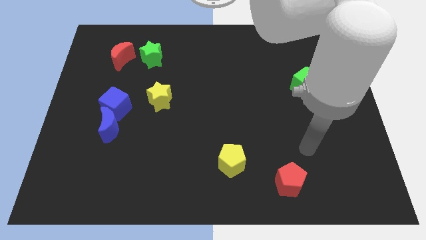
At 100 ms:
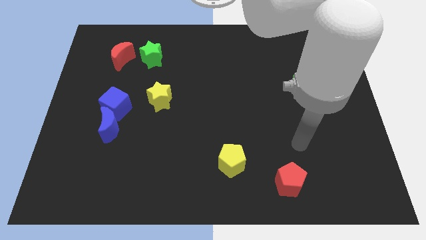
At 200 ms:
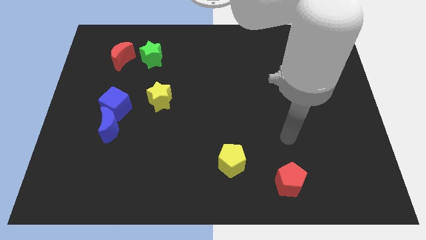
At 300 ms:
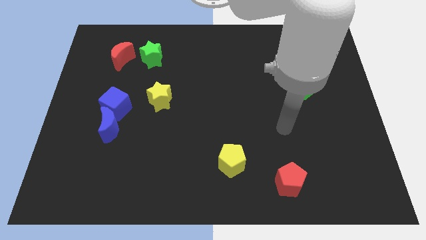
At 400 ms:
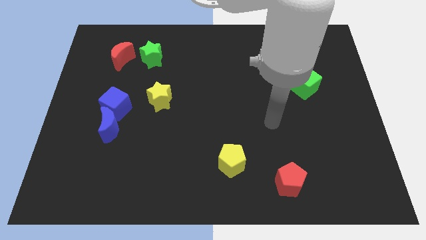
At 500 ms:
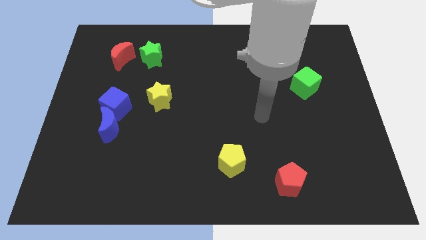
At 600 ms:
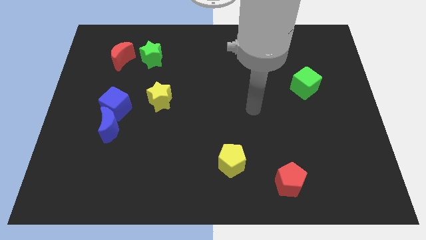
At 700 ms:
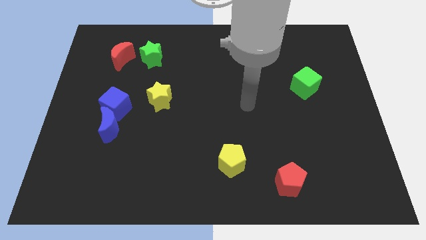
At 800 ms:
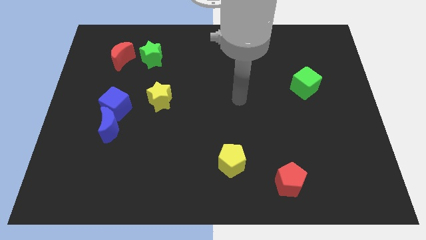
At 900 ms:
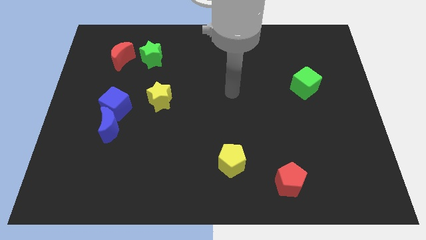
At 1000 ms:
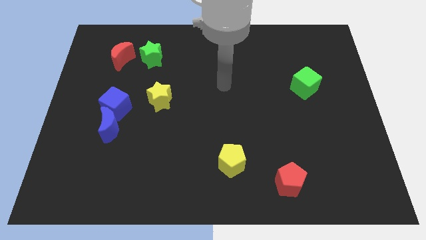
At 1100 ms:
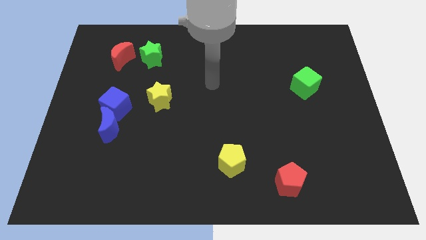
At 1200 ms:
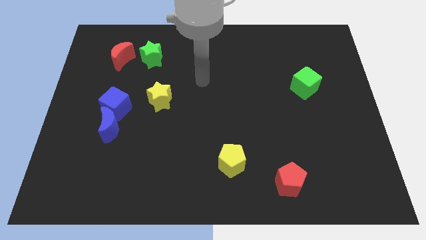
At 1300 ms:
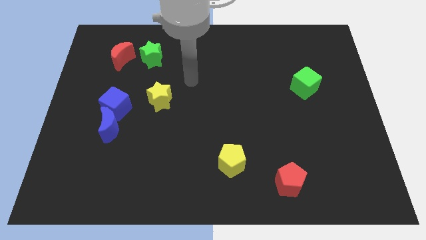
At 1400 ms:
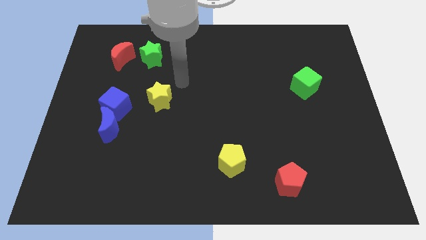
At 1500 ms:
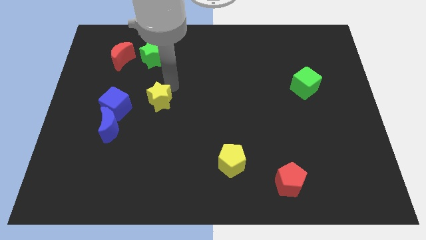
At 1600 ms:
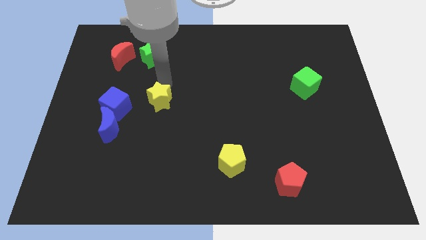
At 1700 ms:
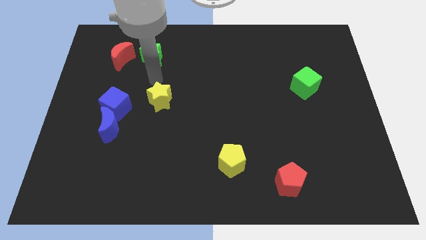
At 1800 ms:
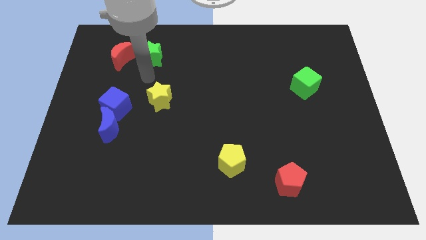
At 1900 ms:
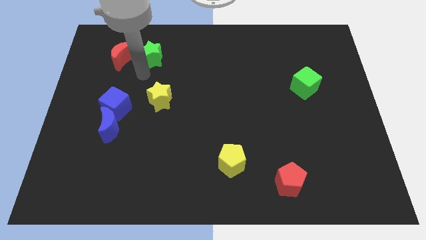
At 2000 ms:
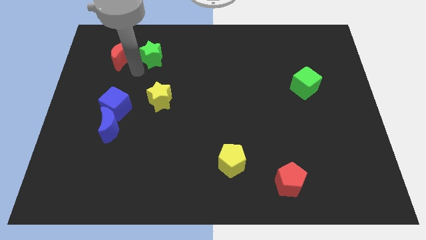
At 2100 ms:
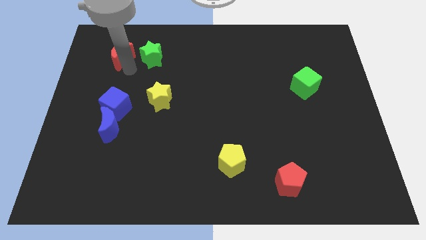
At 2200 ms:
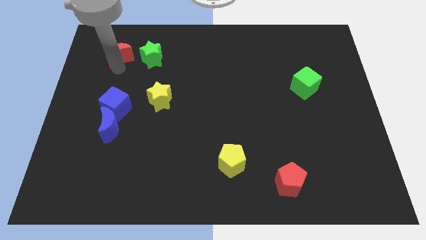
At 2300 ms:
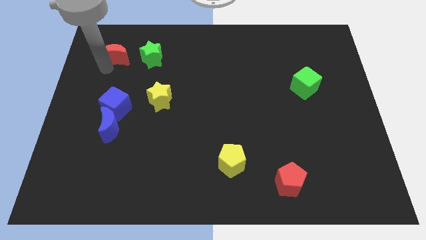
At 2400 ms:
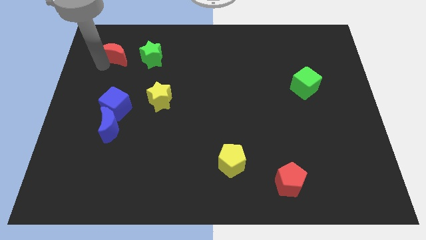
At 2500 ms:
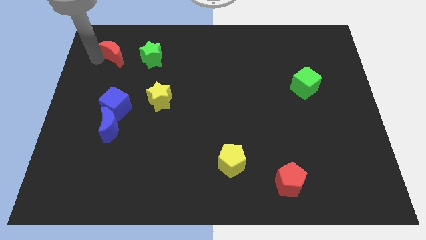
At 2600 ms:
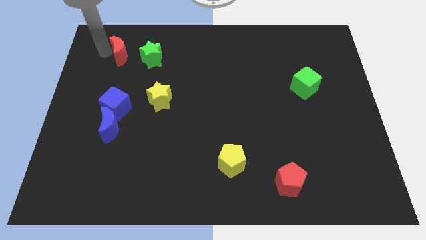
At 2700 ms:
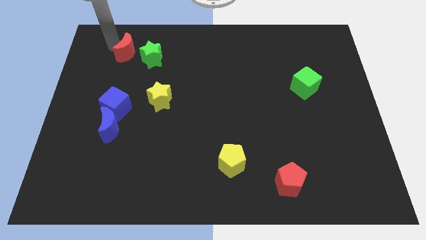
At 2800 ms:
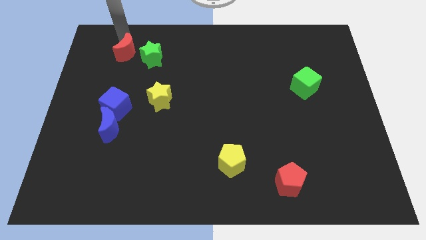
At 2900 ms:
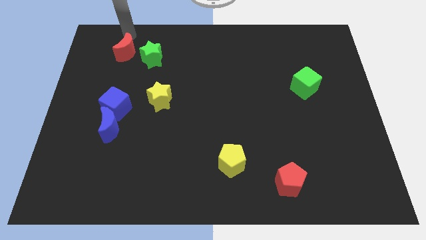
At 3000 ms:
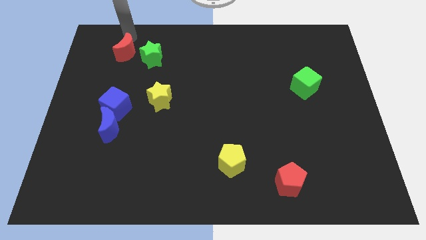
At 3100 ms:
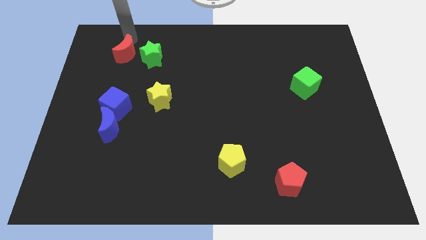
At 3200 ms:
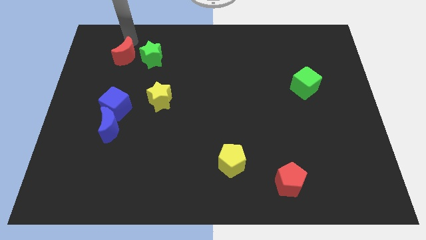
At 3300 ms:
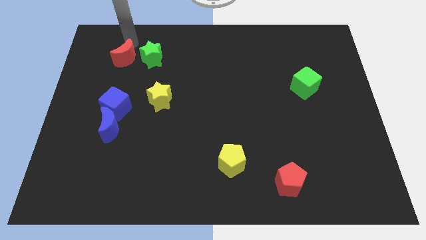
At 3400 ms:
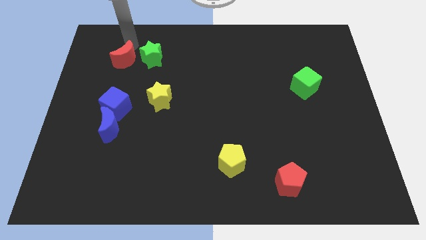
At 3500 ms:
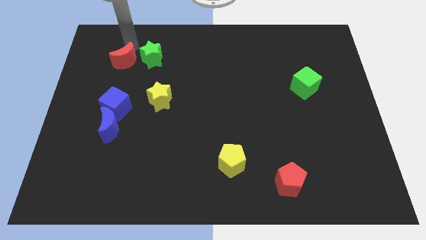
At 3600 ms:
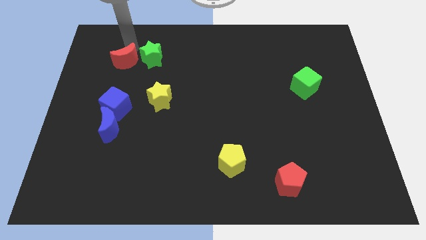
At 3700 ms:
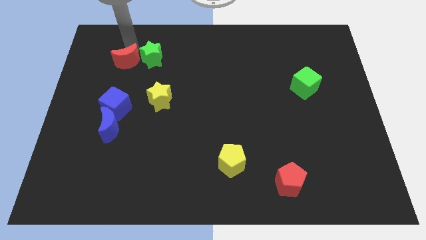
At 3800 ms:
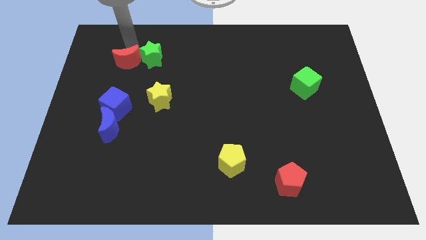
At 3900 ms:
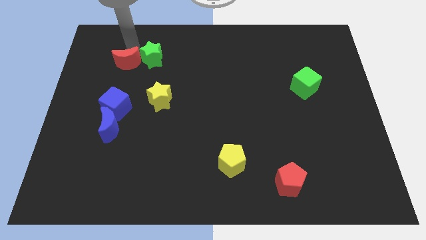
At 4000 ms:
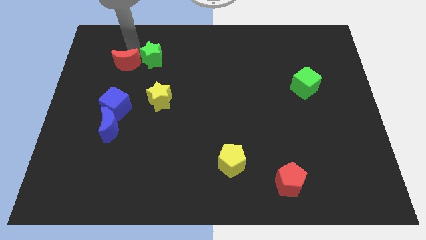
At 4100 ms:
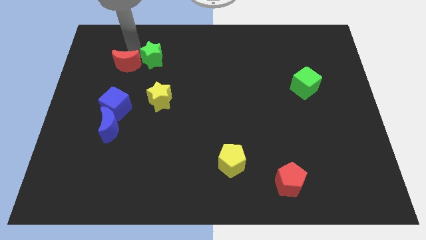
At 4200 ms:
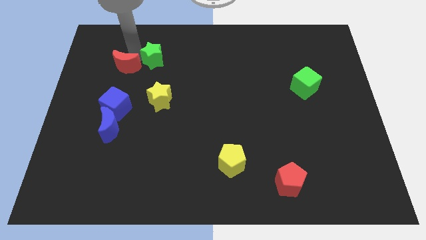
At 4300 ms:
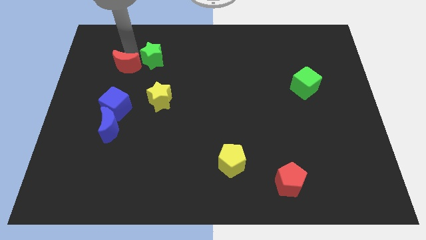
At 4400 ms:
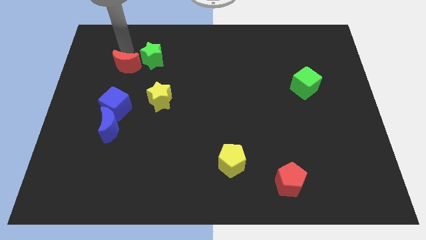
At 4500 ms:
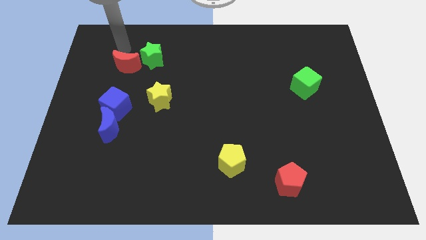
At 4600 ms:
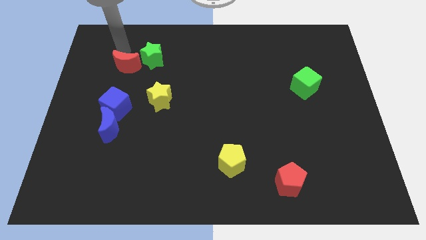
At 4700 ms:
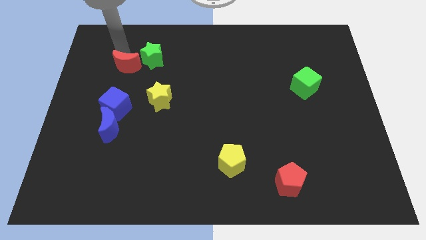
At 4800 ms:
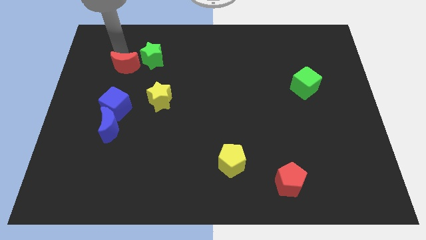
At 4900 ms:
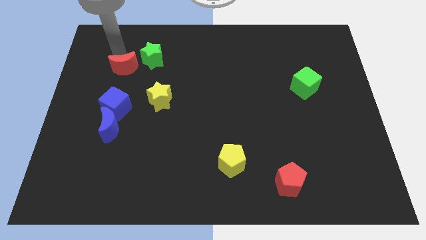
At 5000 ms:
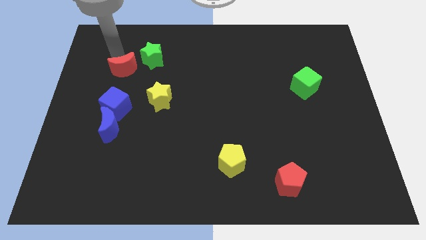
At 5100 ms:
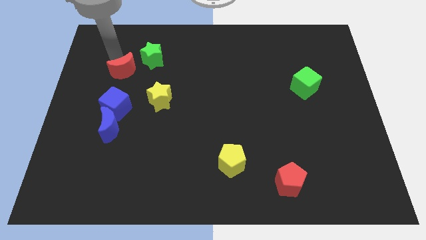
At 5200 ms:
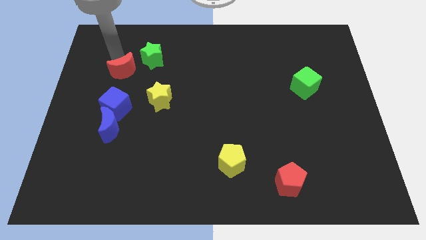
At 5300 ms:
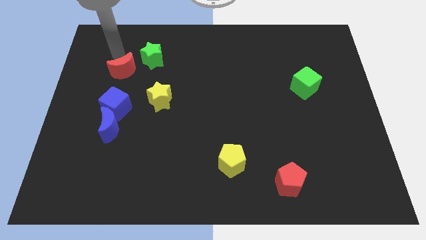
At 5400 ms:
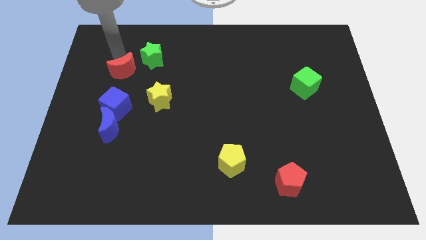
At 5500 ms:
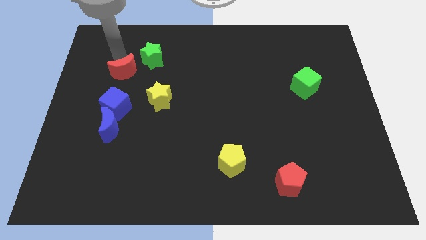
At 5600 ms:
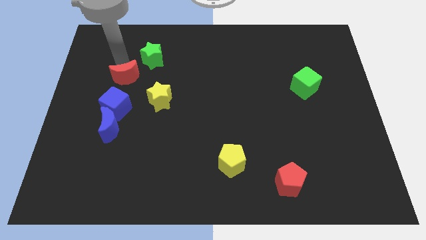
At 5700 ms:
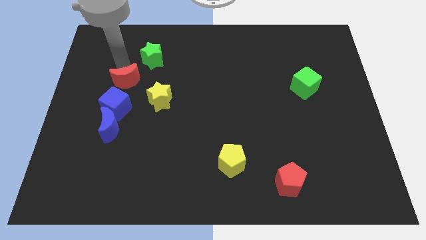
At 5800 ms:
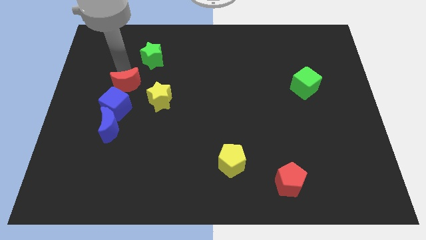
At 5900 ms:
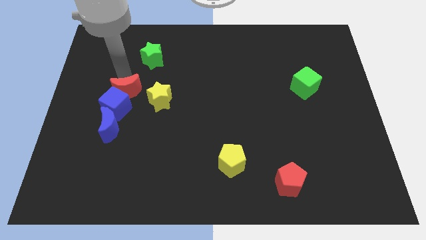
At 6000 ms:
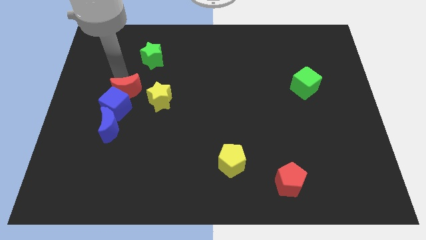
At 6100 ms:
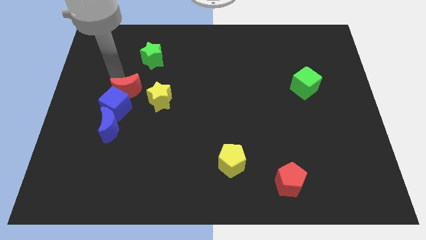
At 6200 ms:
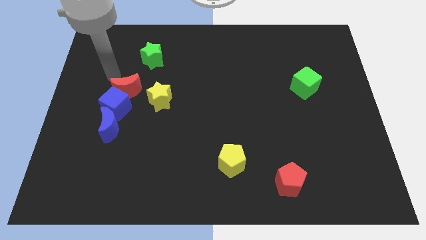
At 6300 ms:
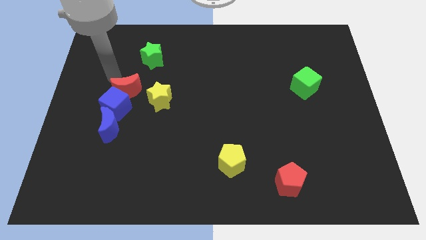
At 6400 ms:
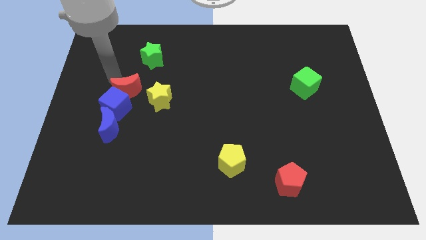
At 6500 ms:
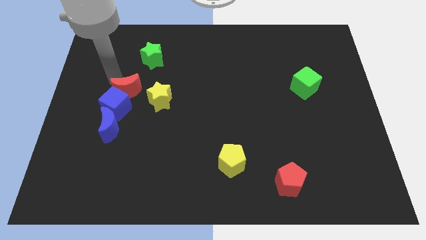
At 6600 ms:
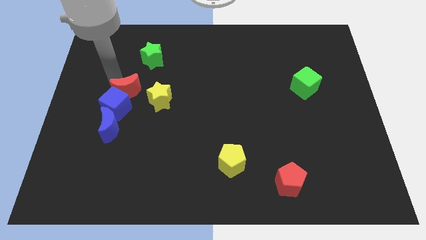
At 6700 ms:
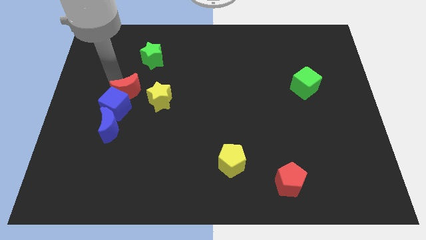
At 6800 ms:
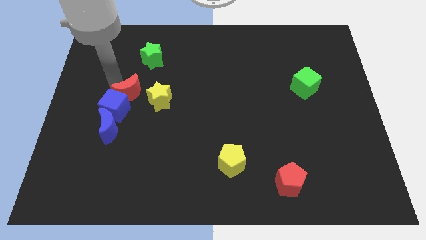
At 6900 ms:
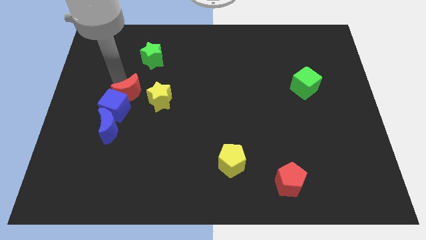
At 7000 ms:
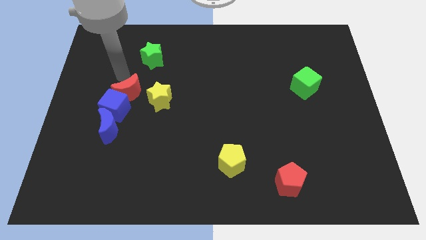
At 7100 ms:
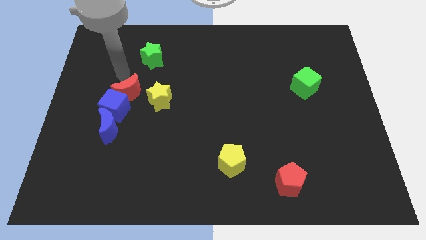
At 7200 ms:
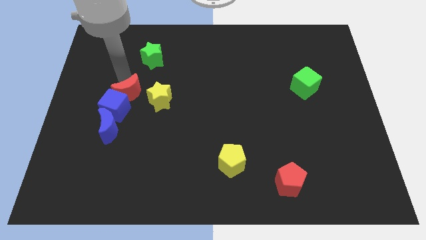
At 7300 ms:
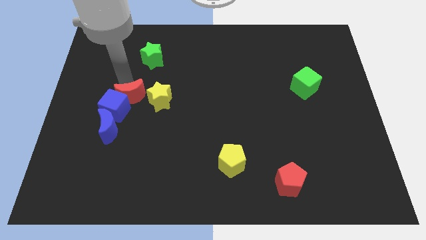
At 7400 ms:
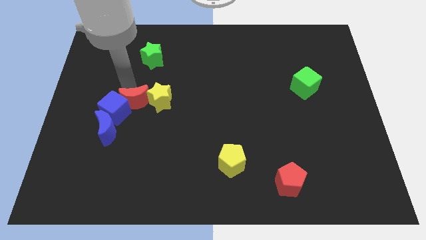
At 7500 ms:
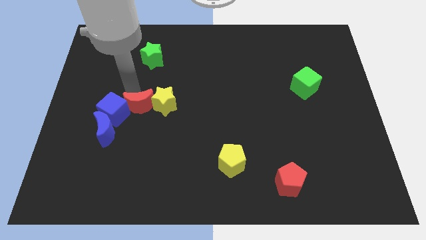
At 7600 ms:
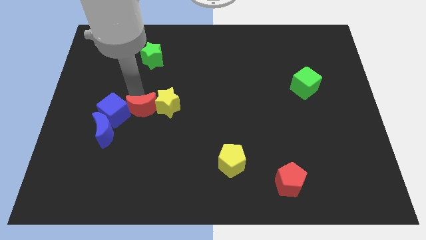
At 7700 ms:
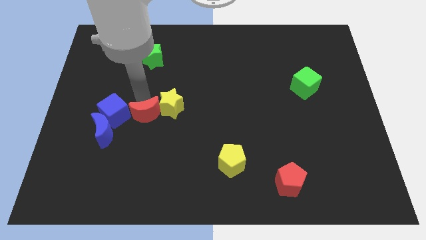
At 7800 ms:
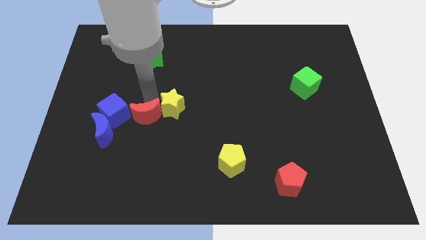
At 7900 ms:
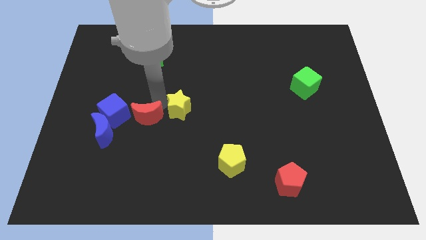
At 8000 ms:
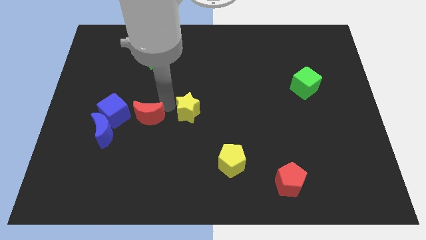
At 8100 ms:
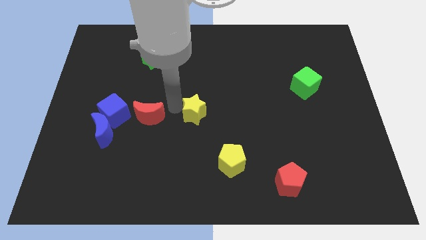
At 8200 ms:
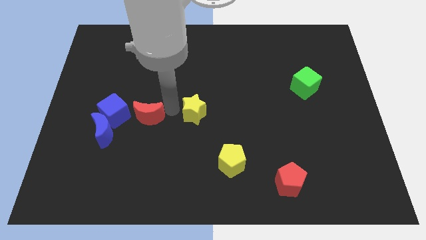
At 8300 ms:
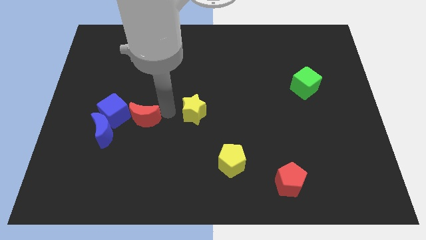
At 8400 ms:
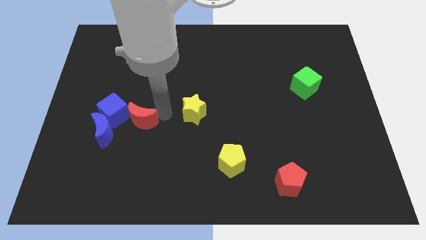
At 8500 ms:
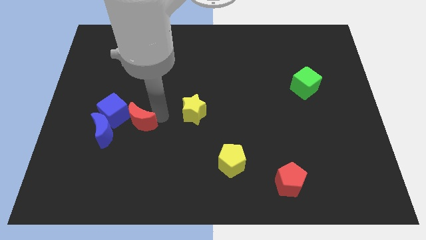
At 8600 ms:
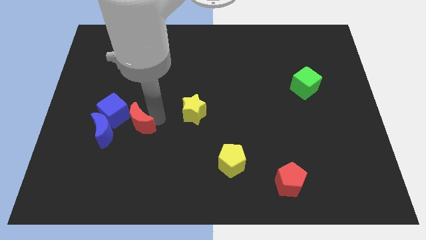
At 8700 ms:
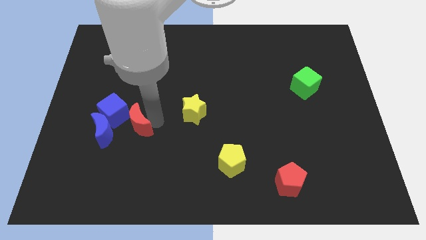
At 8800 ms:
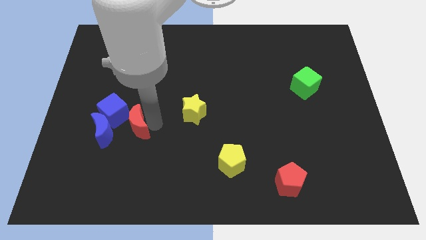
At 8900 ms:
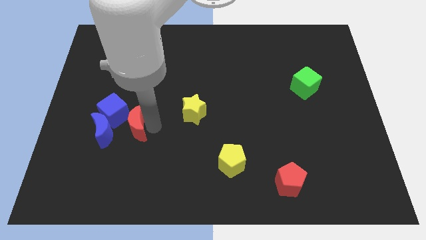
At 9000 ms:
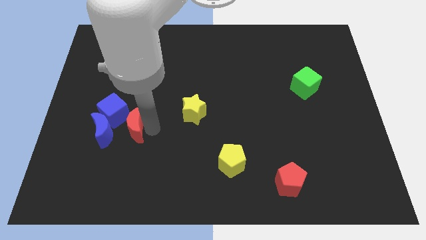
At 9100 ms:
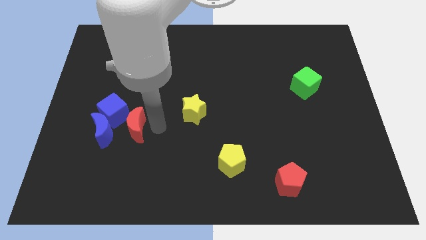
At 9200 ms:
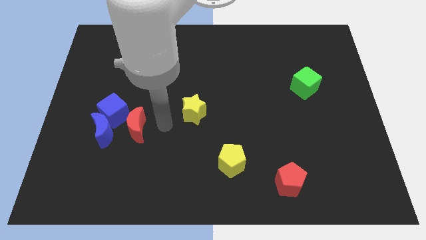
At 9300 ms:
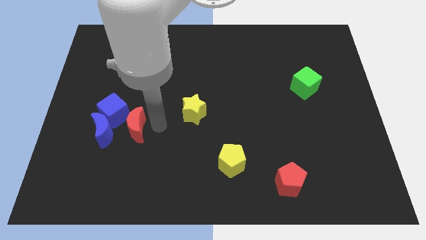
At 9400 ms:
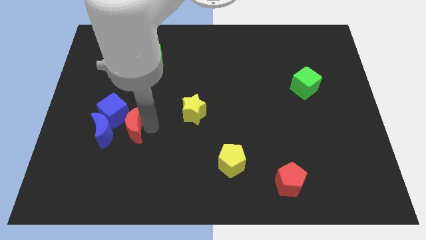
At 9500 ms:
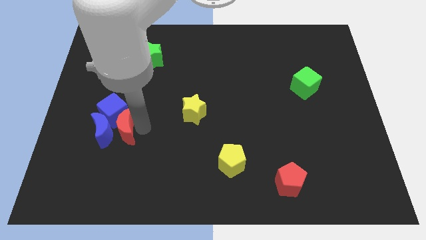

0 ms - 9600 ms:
push the red moon next to the blue moon
